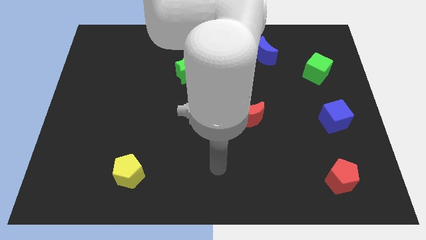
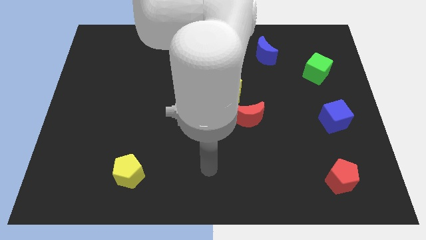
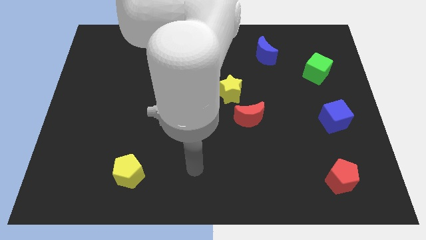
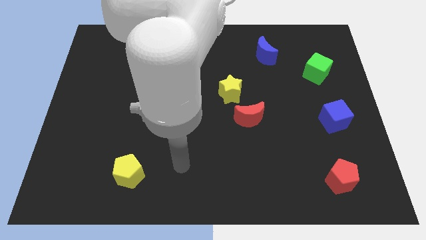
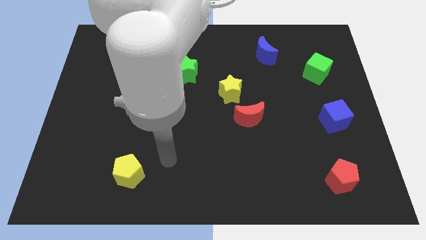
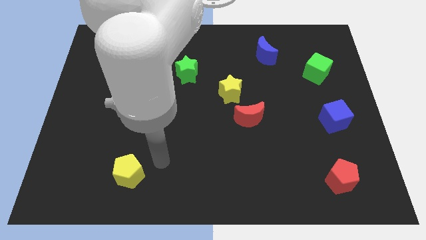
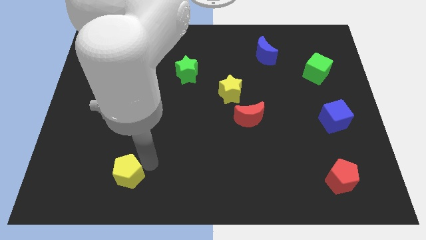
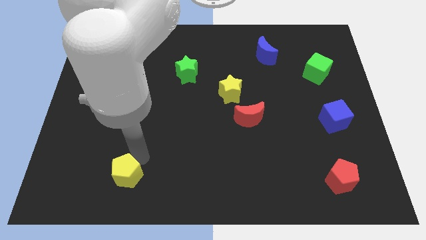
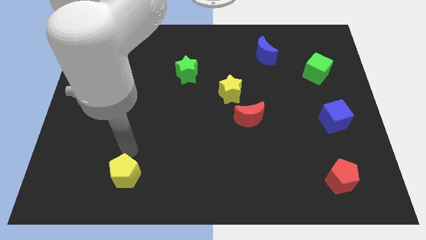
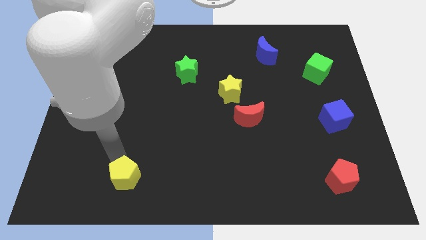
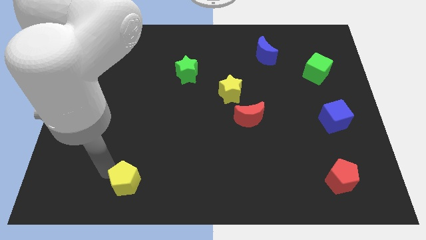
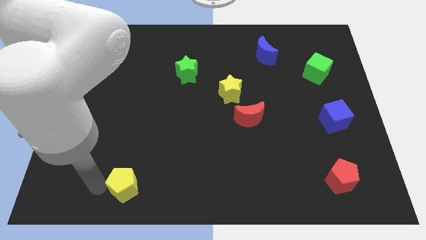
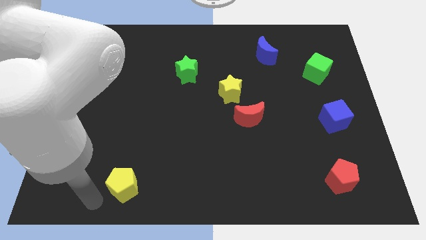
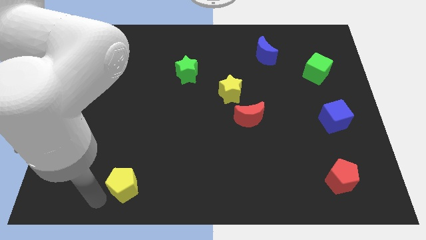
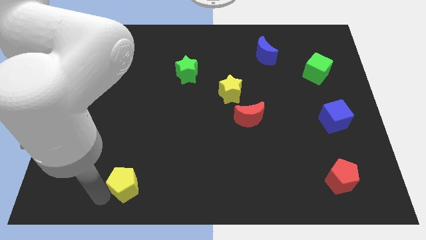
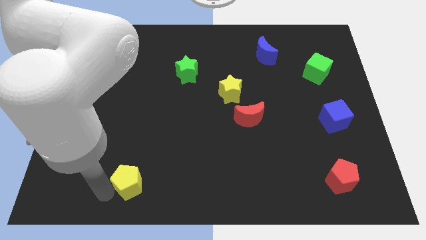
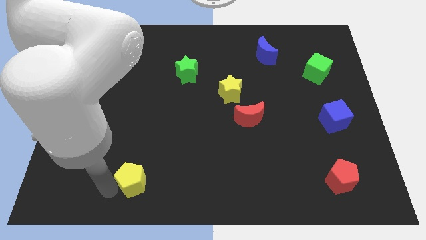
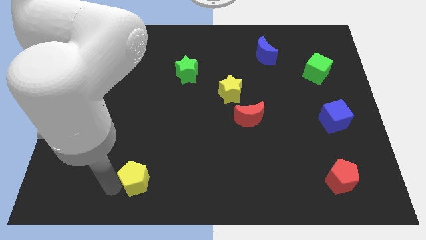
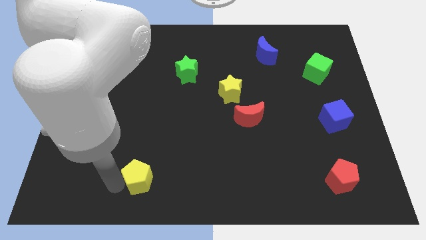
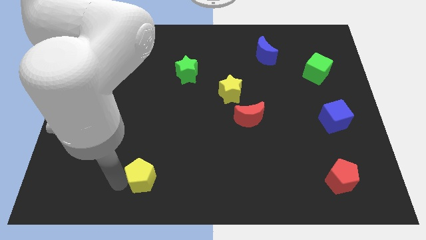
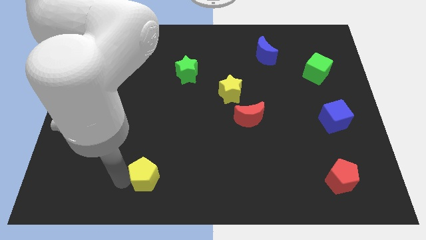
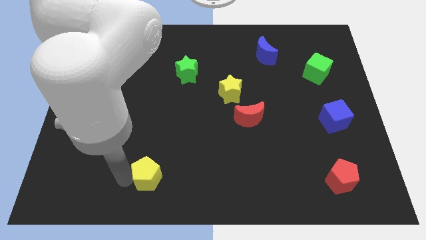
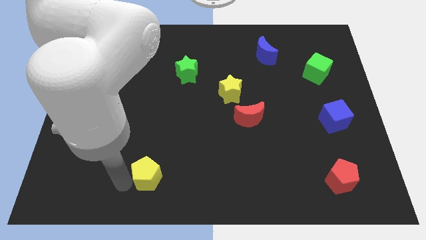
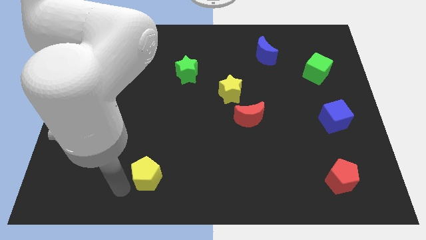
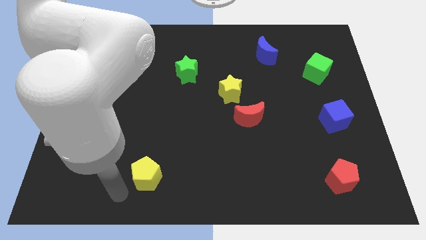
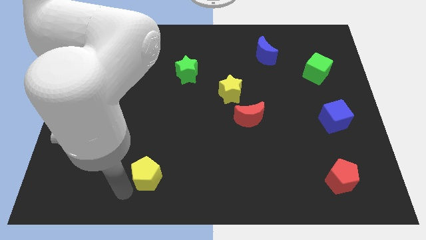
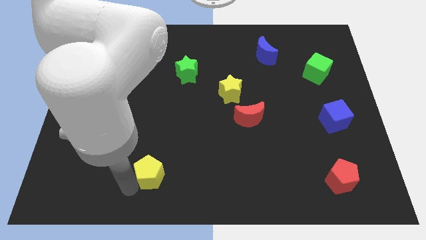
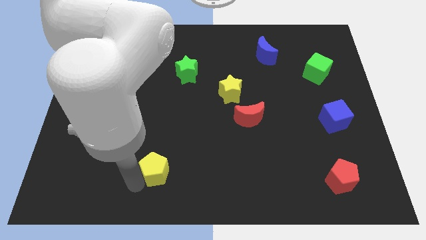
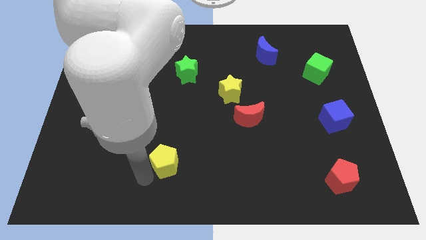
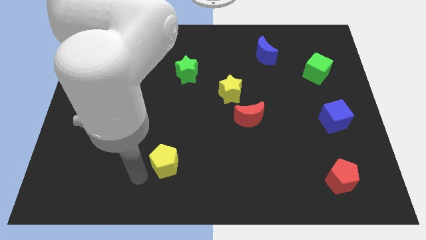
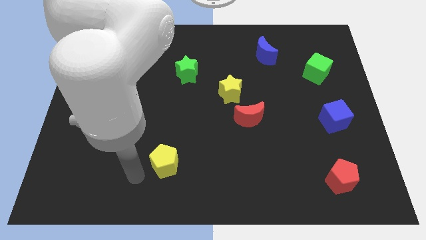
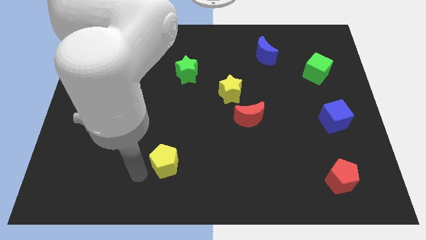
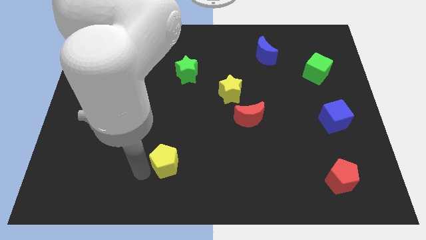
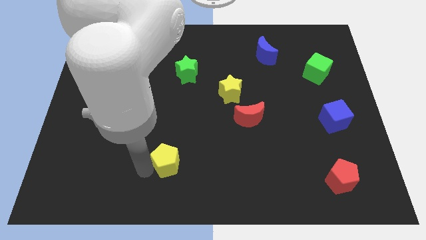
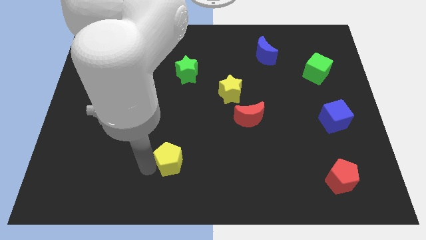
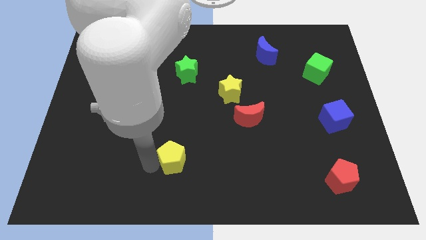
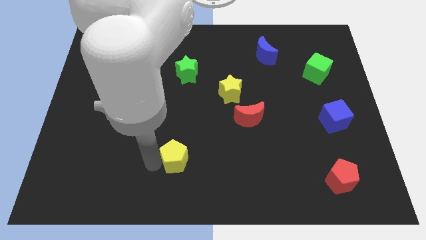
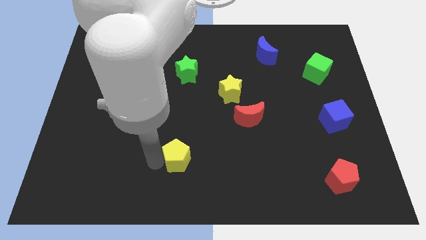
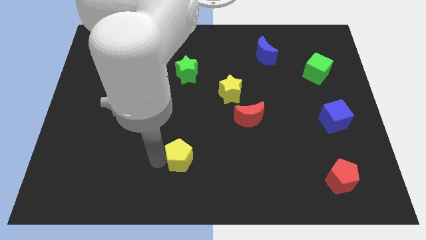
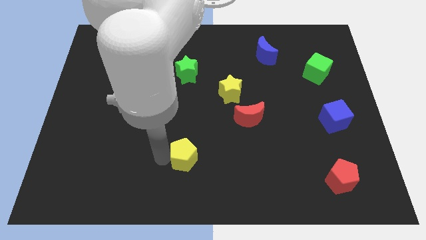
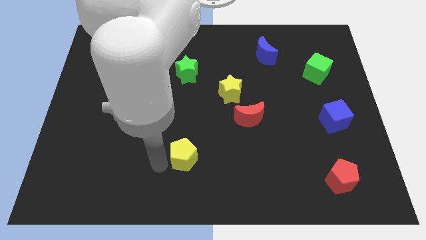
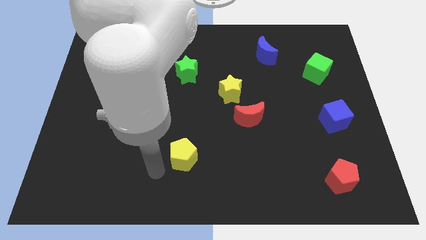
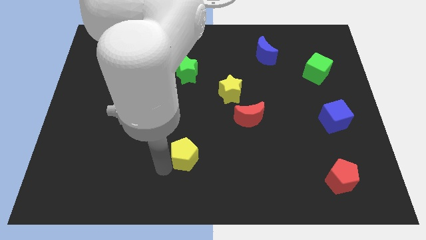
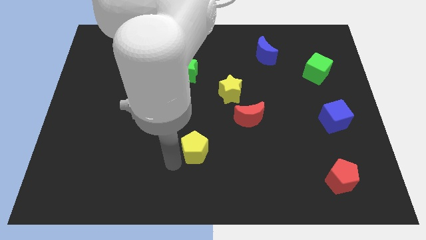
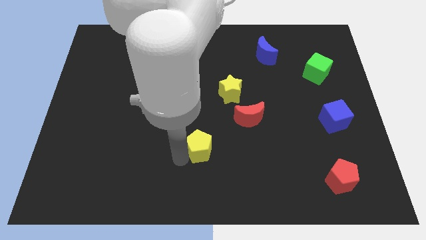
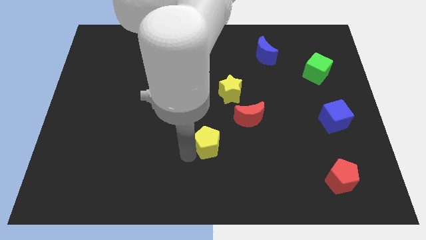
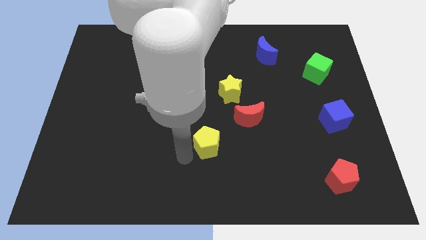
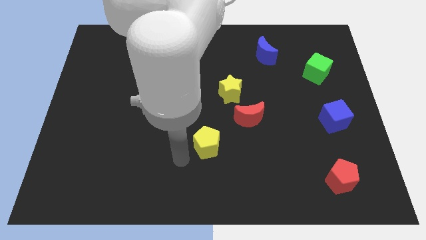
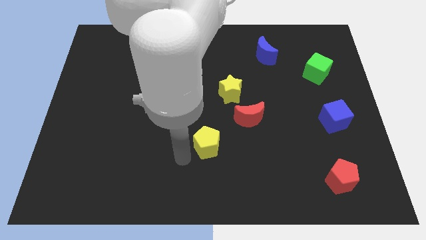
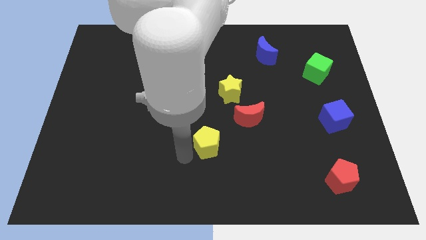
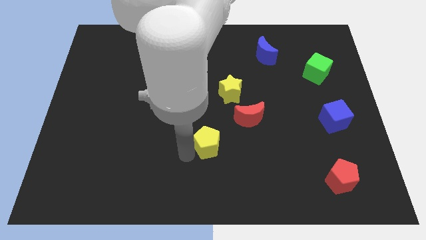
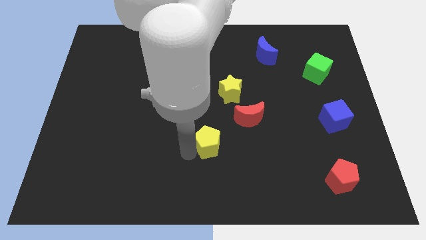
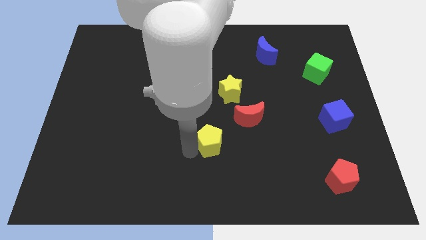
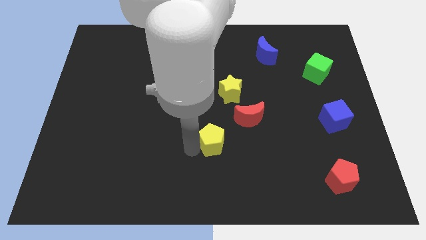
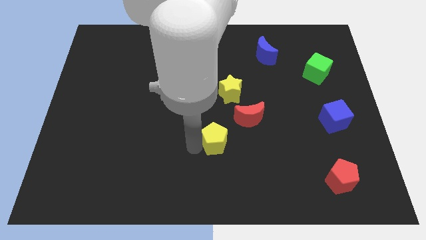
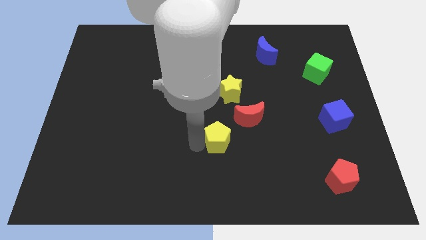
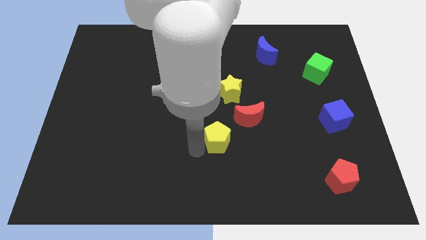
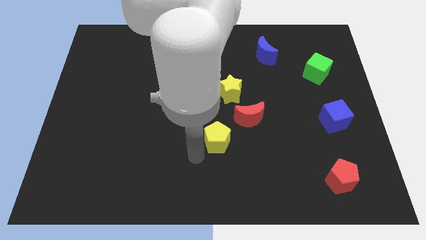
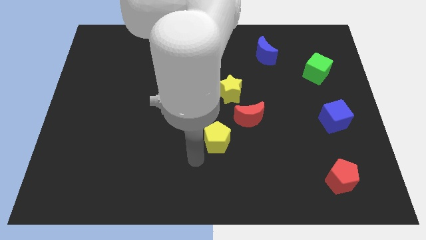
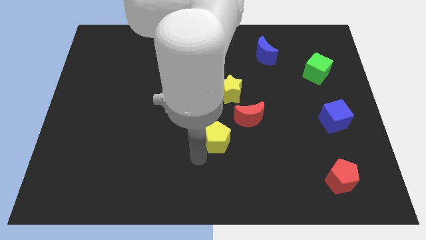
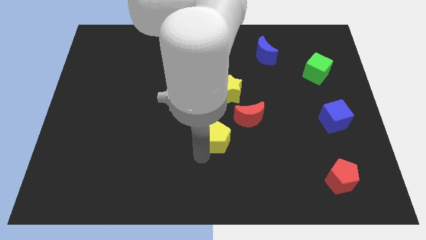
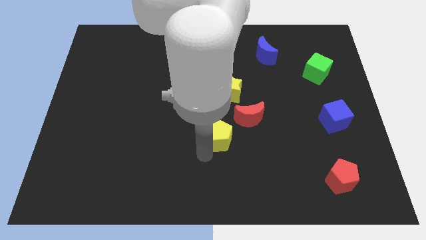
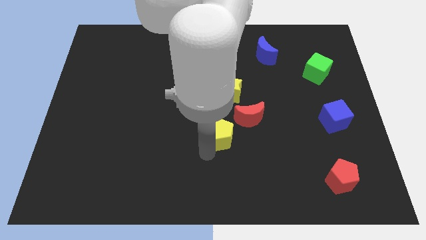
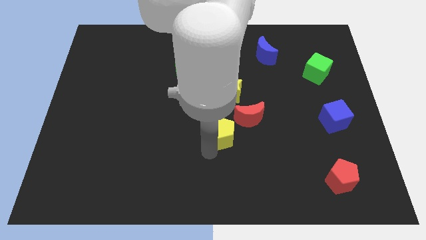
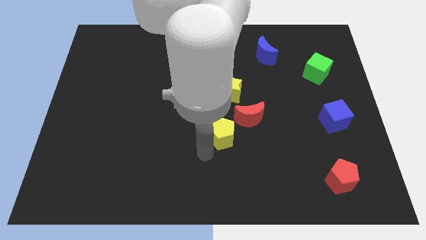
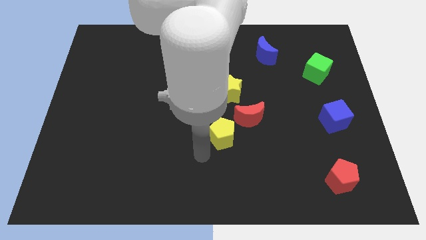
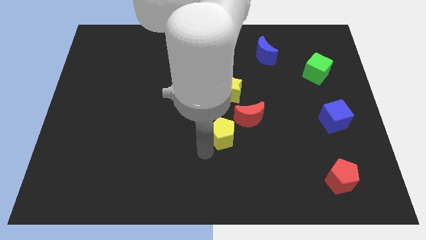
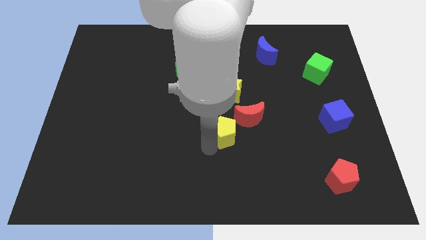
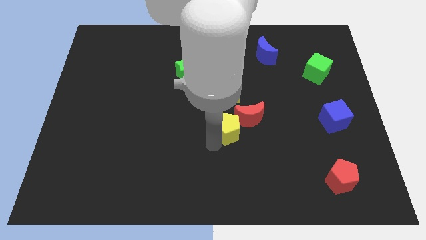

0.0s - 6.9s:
slide the yellow pentagon towards the red moon

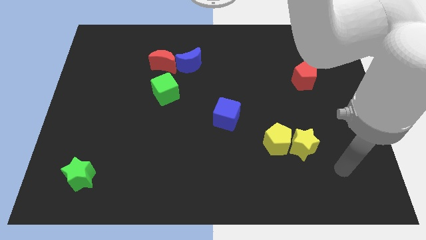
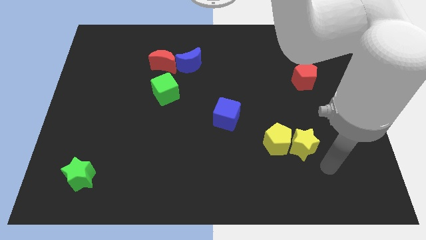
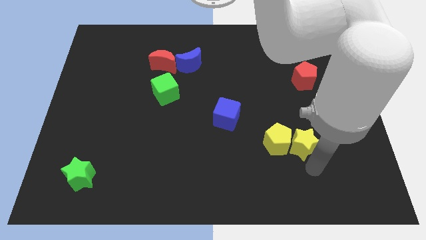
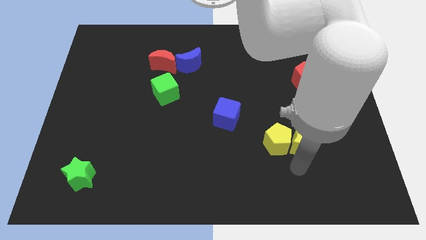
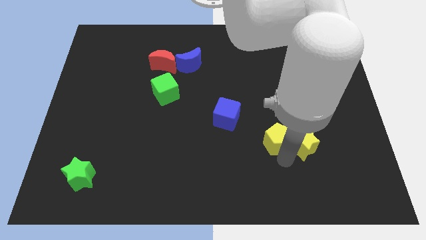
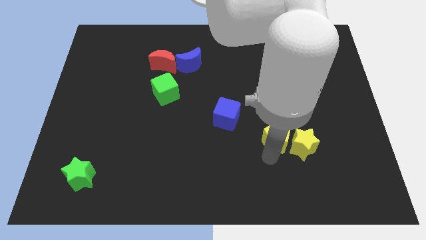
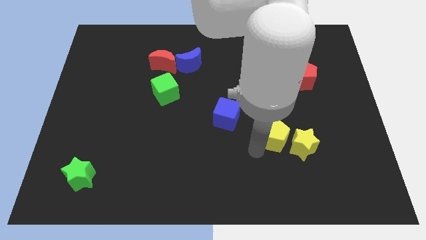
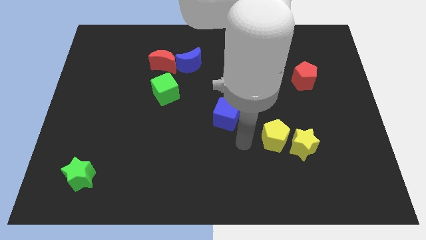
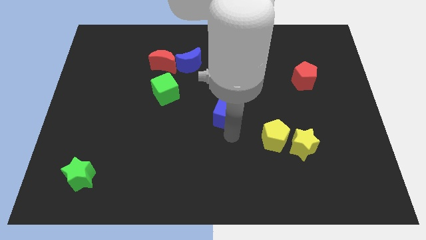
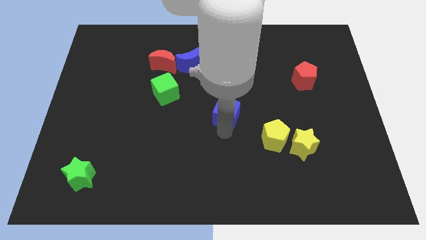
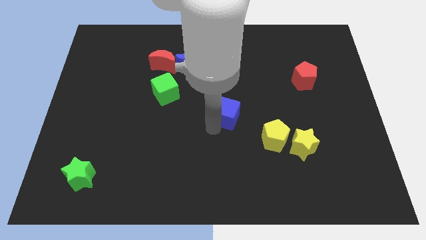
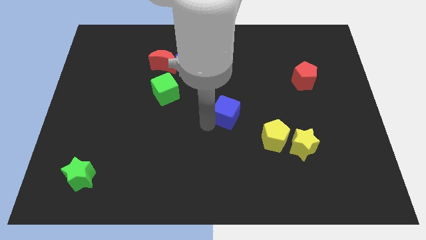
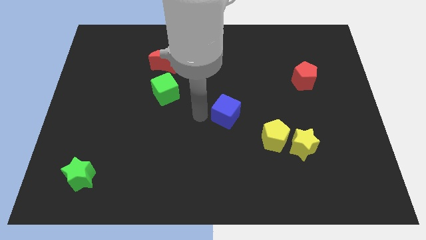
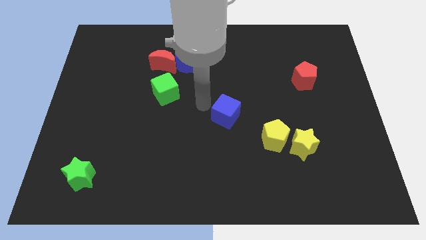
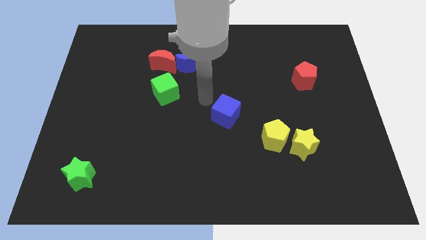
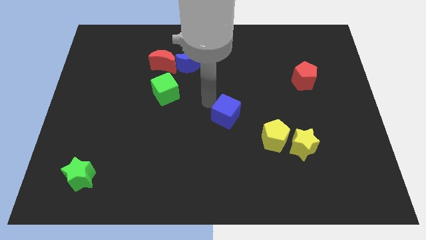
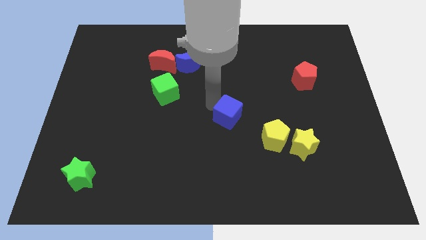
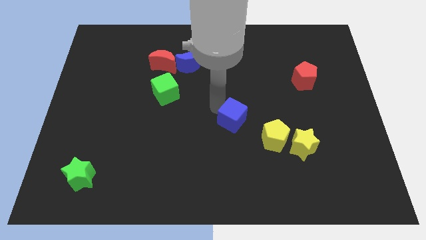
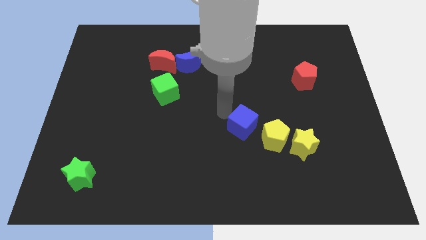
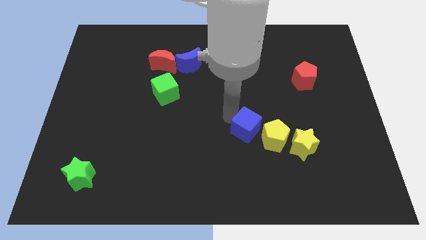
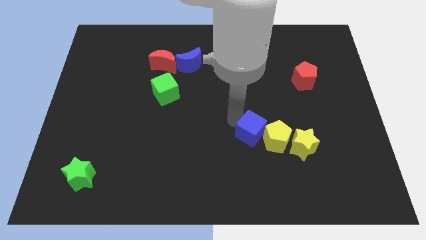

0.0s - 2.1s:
slide the blue cube next to the yellow pentagon
